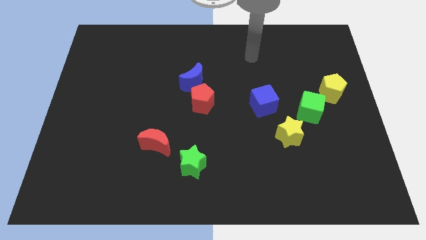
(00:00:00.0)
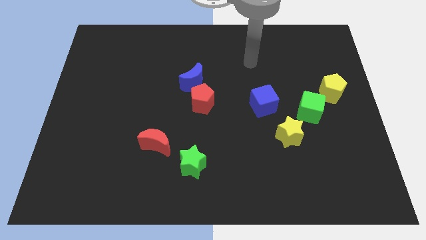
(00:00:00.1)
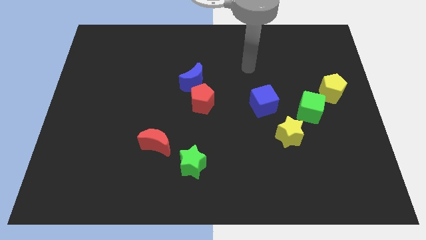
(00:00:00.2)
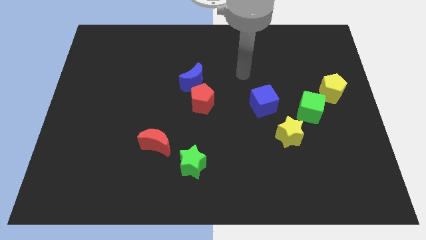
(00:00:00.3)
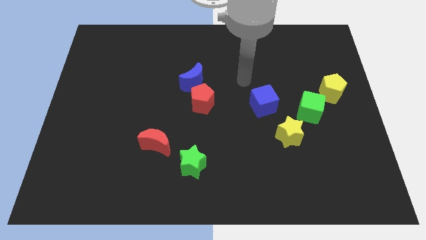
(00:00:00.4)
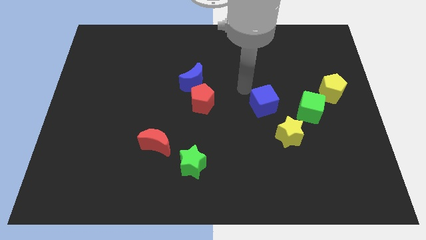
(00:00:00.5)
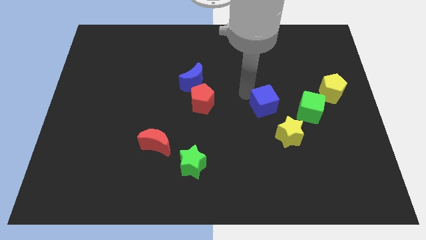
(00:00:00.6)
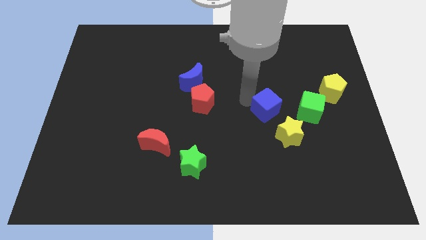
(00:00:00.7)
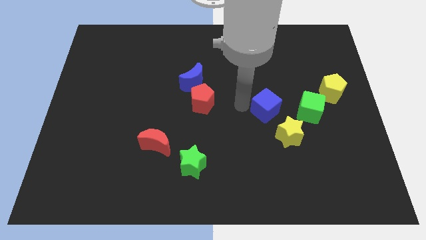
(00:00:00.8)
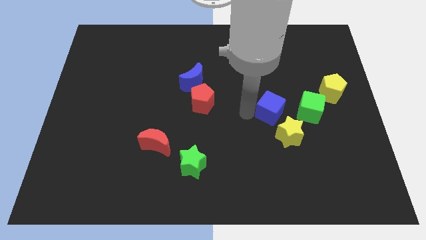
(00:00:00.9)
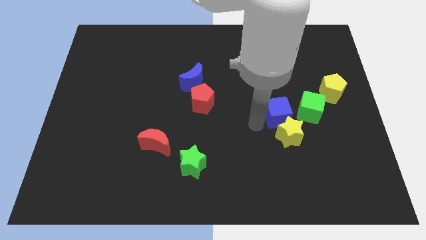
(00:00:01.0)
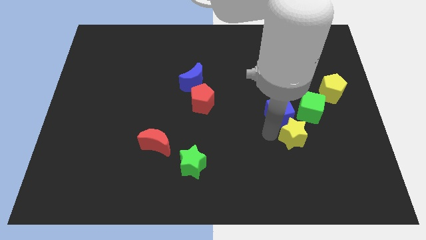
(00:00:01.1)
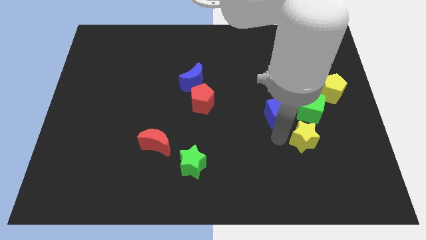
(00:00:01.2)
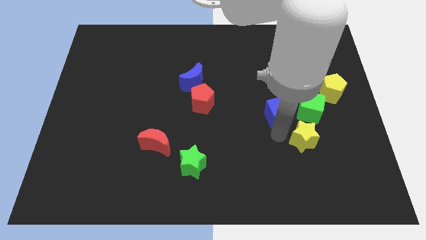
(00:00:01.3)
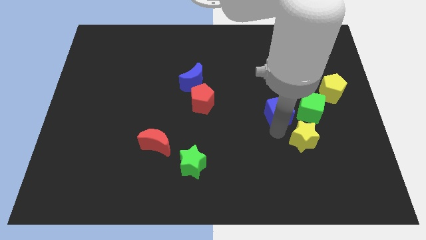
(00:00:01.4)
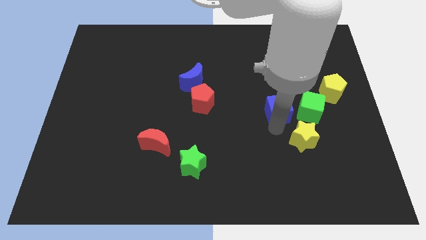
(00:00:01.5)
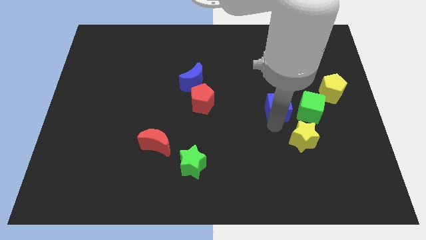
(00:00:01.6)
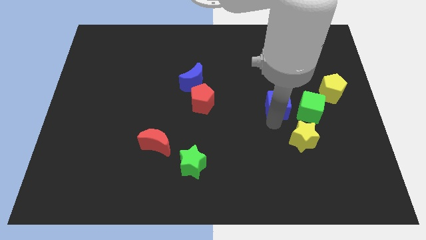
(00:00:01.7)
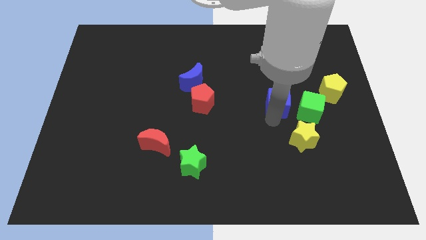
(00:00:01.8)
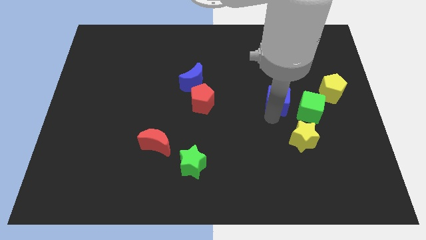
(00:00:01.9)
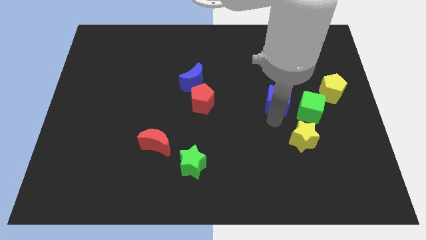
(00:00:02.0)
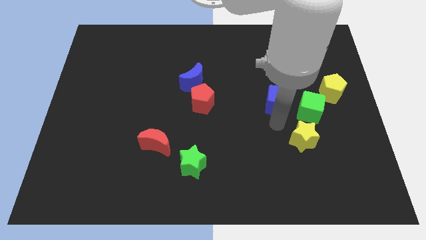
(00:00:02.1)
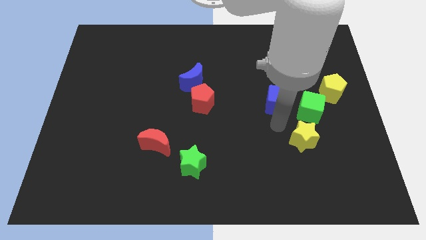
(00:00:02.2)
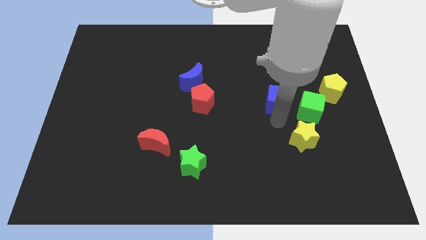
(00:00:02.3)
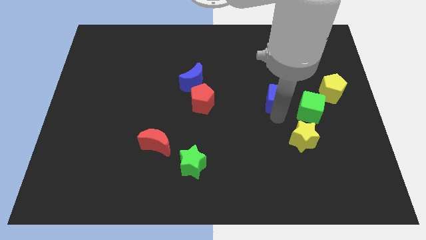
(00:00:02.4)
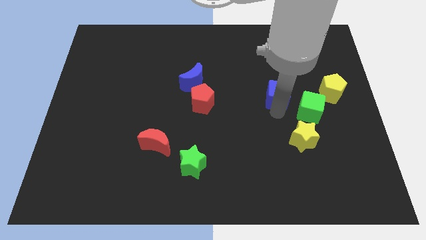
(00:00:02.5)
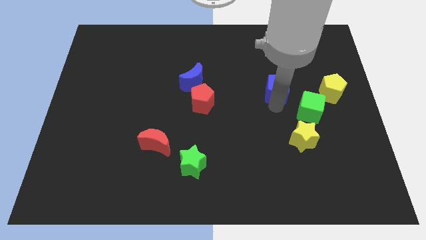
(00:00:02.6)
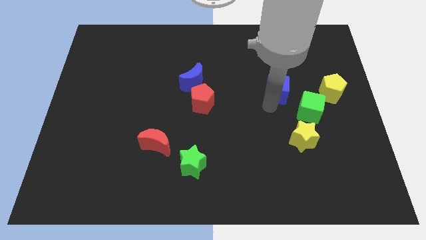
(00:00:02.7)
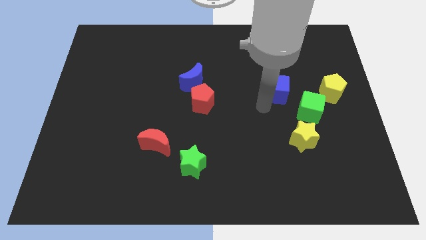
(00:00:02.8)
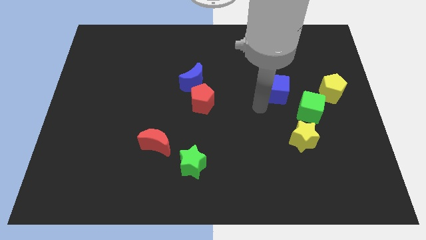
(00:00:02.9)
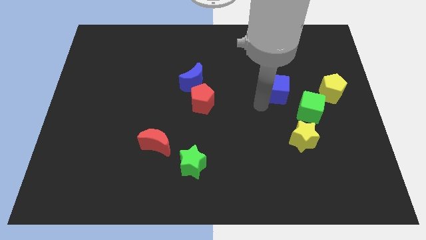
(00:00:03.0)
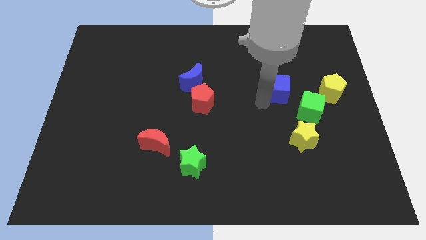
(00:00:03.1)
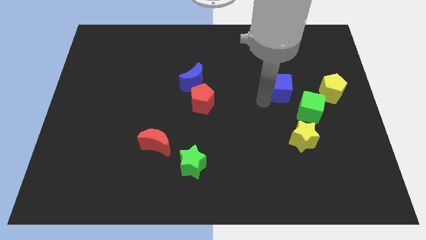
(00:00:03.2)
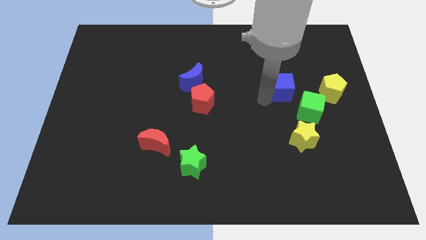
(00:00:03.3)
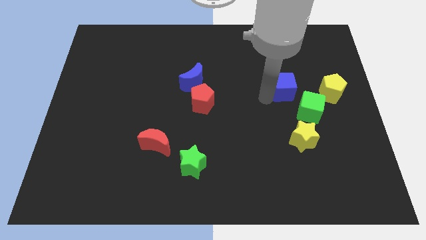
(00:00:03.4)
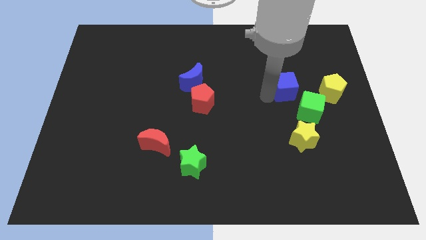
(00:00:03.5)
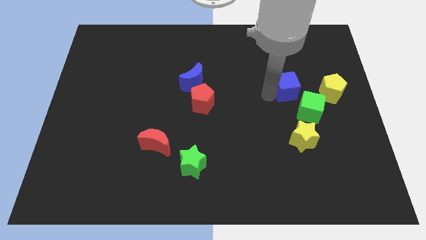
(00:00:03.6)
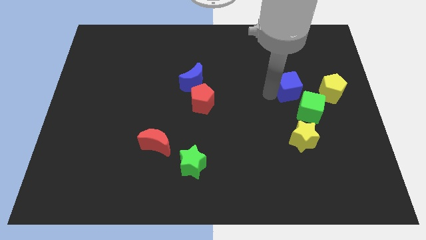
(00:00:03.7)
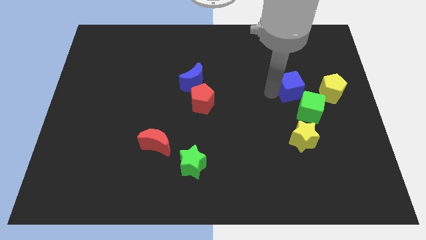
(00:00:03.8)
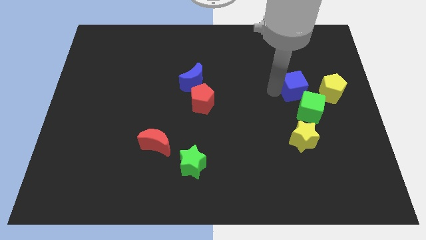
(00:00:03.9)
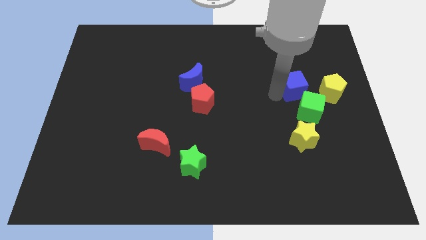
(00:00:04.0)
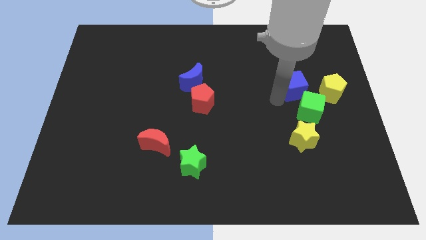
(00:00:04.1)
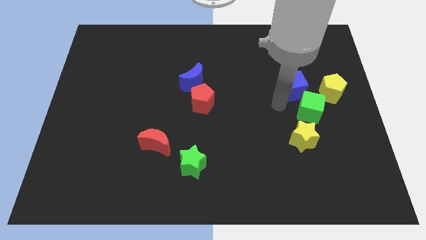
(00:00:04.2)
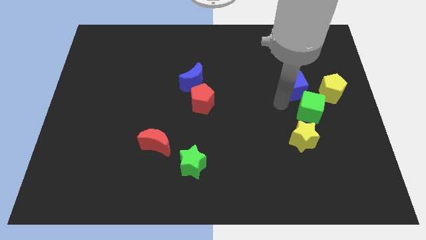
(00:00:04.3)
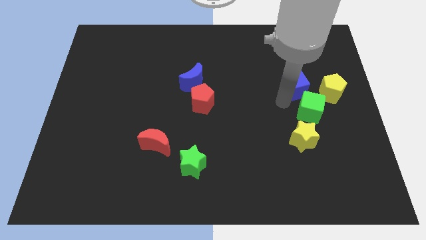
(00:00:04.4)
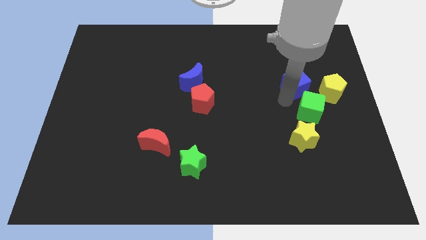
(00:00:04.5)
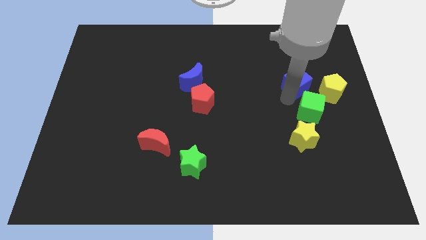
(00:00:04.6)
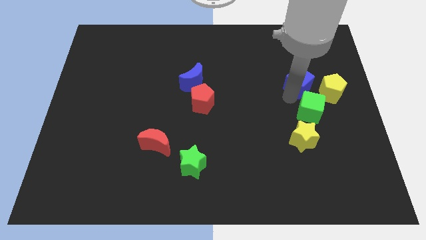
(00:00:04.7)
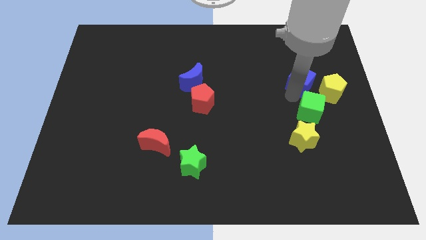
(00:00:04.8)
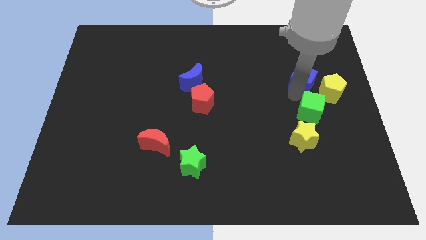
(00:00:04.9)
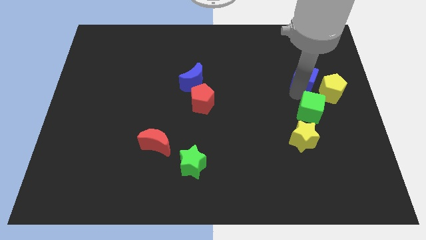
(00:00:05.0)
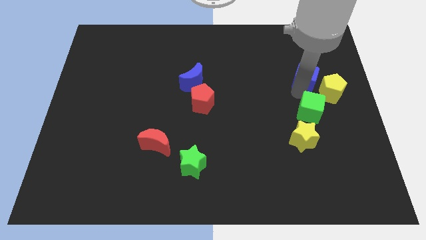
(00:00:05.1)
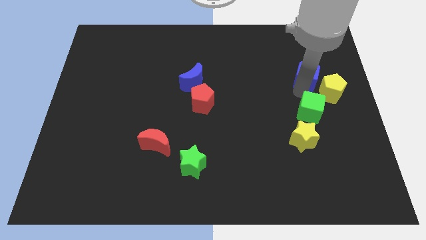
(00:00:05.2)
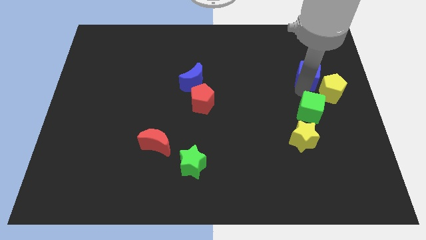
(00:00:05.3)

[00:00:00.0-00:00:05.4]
push the blue cube to the top of the yellow pentagon

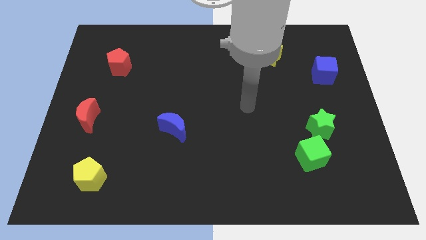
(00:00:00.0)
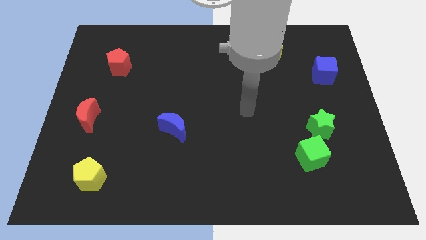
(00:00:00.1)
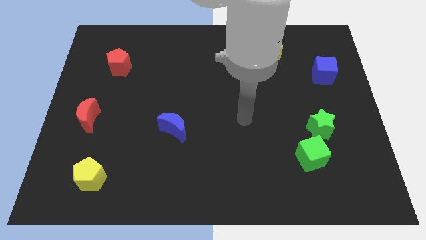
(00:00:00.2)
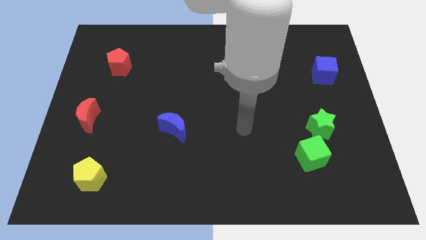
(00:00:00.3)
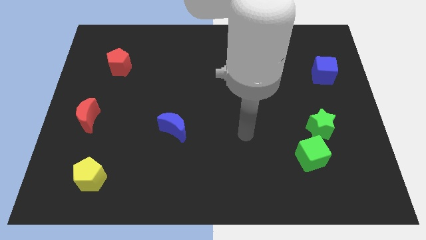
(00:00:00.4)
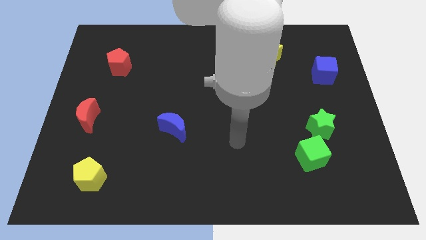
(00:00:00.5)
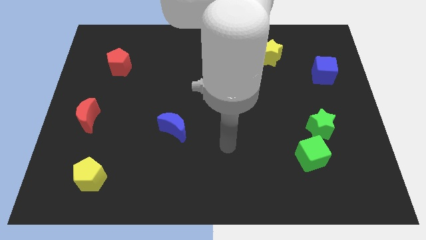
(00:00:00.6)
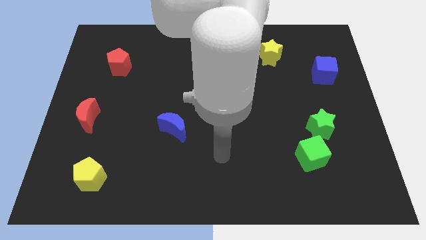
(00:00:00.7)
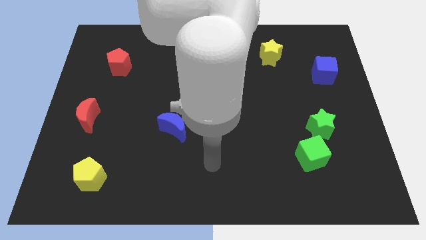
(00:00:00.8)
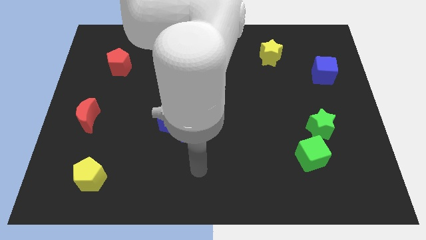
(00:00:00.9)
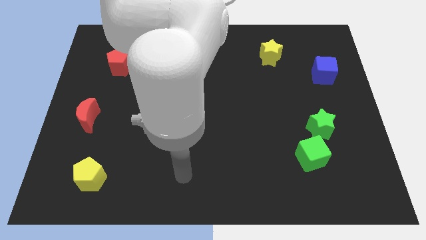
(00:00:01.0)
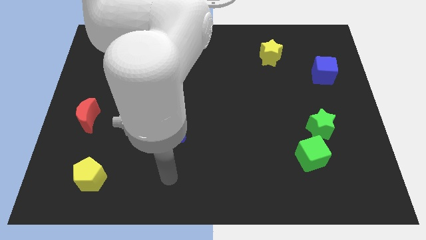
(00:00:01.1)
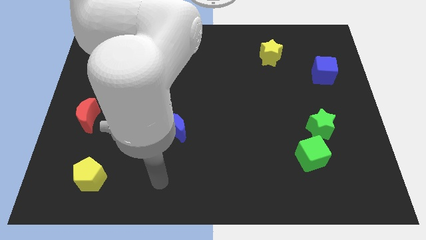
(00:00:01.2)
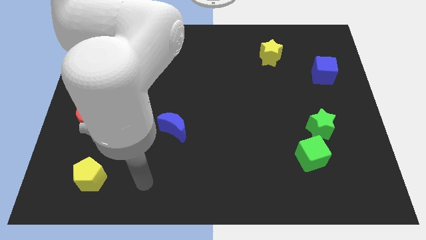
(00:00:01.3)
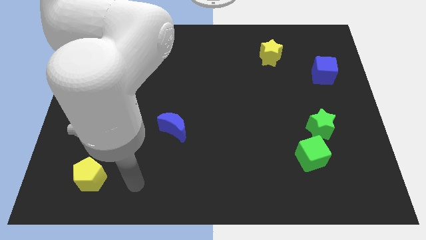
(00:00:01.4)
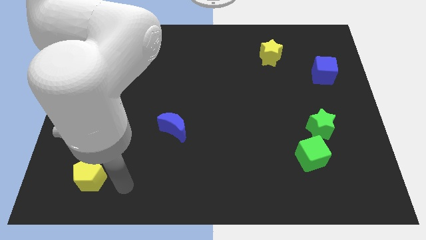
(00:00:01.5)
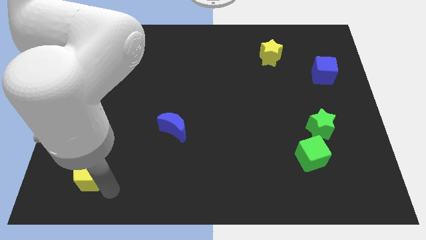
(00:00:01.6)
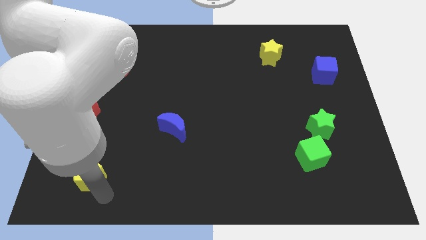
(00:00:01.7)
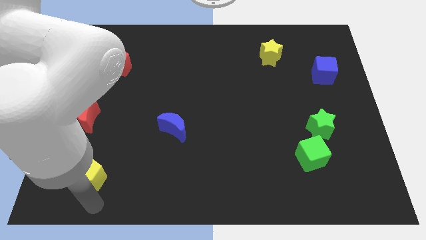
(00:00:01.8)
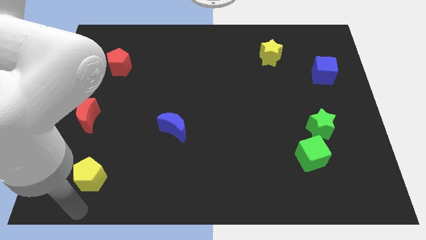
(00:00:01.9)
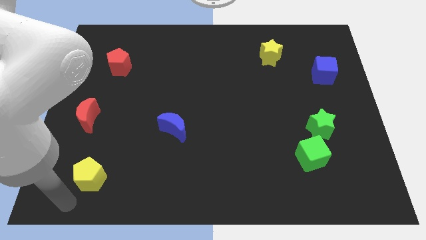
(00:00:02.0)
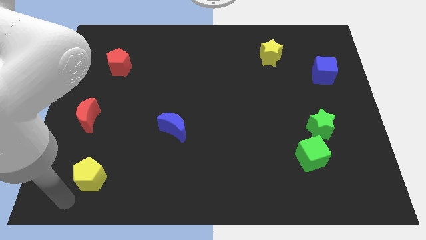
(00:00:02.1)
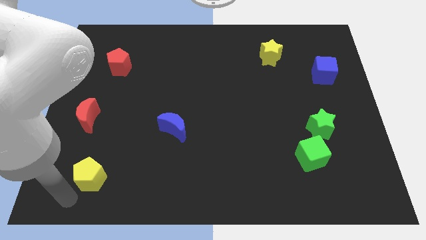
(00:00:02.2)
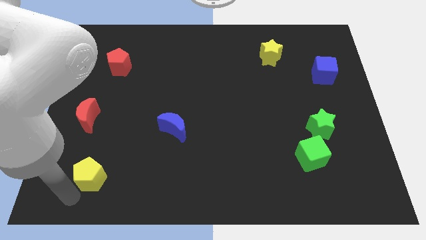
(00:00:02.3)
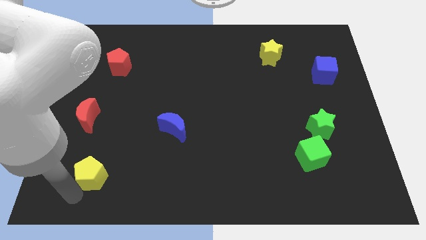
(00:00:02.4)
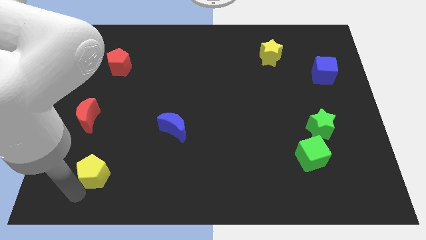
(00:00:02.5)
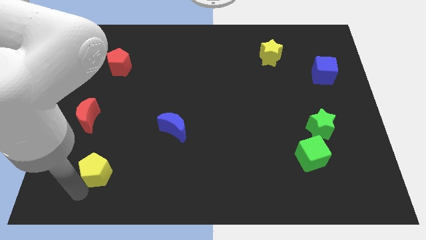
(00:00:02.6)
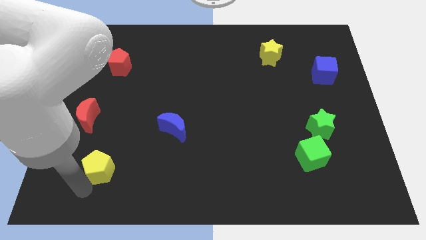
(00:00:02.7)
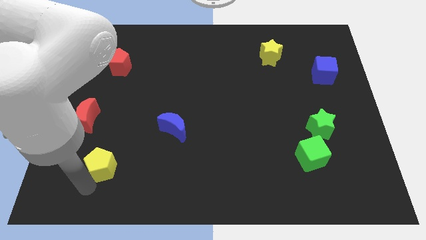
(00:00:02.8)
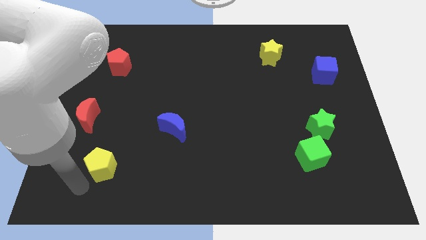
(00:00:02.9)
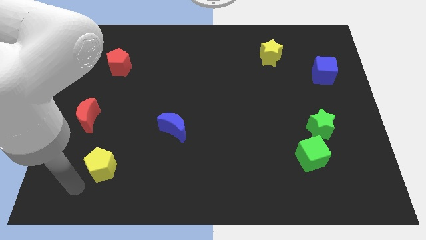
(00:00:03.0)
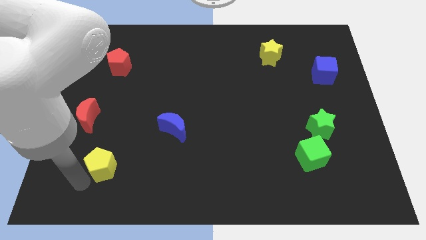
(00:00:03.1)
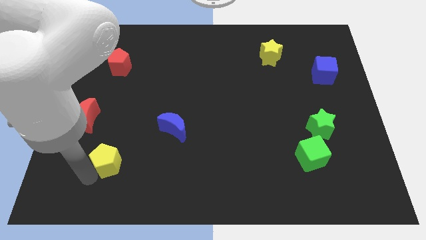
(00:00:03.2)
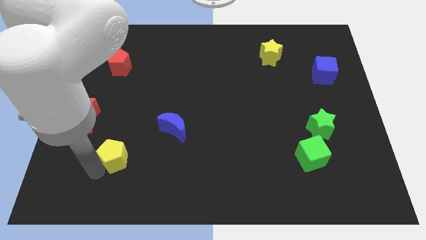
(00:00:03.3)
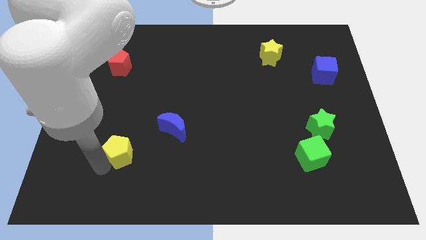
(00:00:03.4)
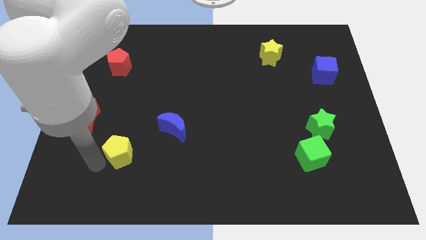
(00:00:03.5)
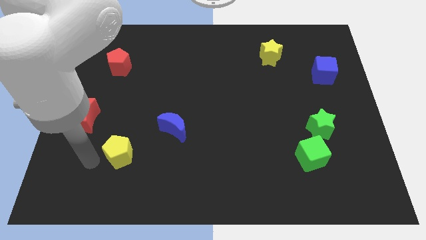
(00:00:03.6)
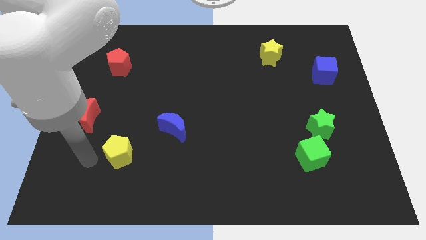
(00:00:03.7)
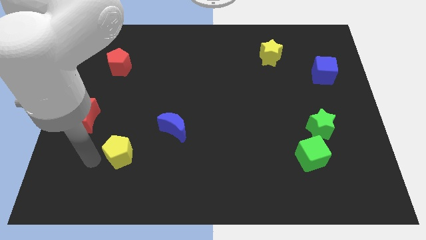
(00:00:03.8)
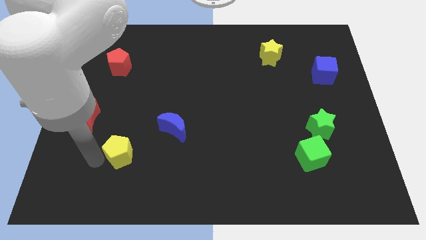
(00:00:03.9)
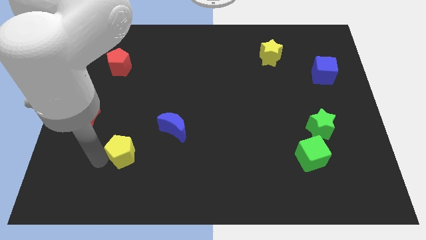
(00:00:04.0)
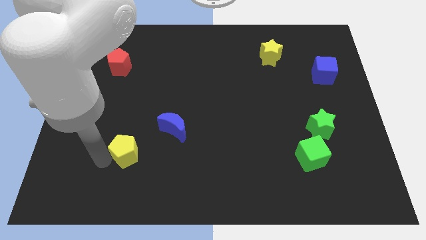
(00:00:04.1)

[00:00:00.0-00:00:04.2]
slide the yellow pentagon to the bottom left side of the blue moon
